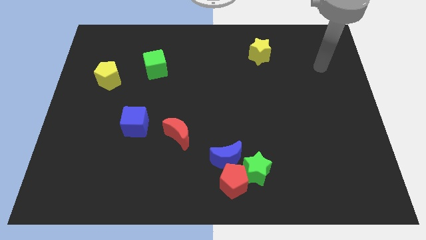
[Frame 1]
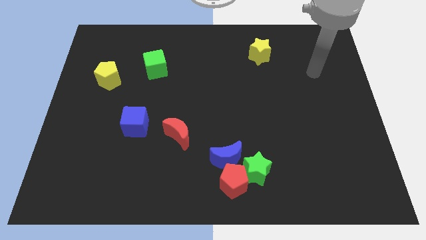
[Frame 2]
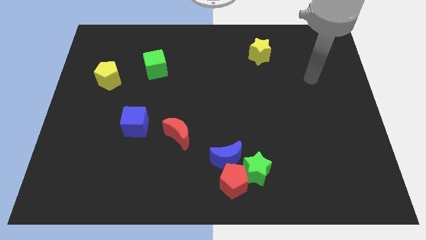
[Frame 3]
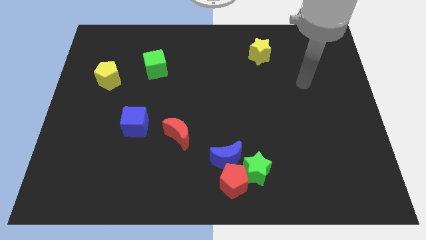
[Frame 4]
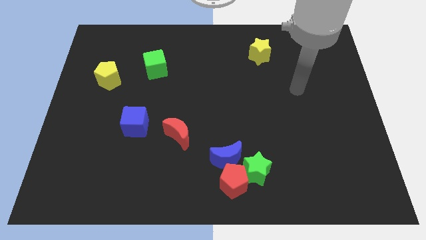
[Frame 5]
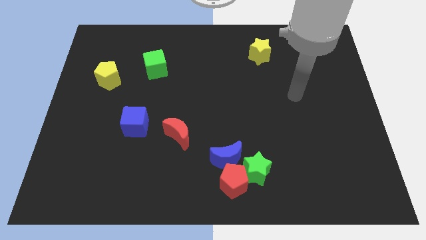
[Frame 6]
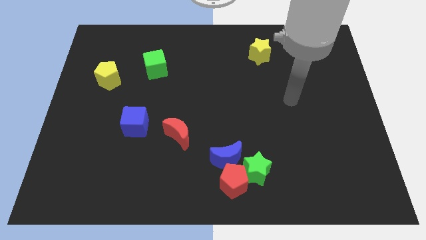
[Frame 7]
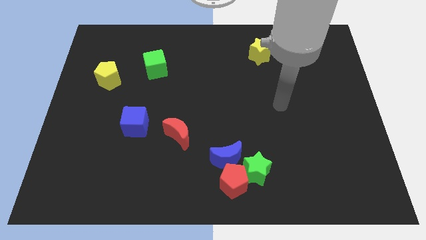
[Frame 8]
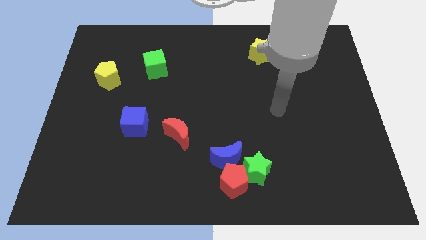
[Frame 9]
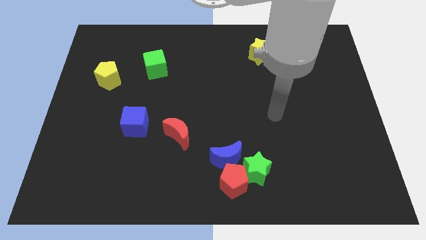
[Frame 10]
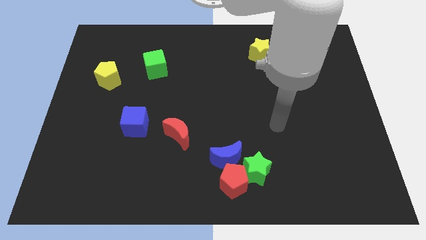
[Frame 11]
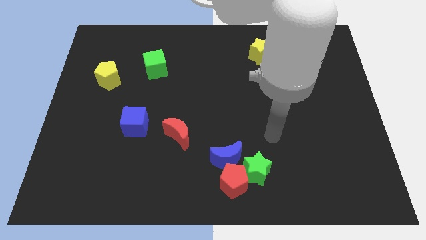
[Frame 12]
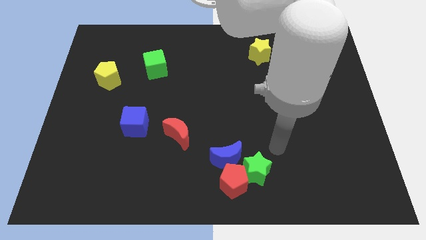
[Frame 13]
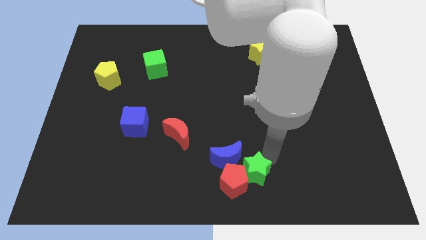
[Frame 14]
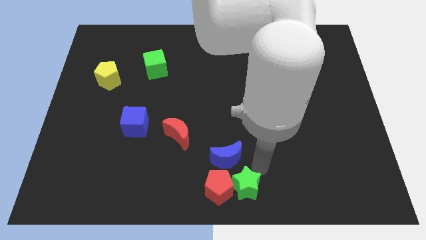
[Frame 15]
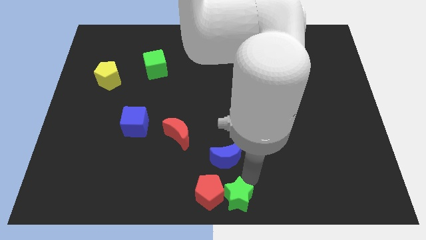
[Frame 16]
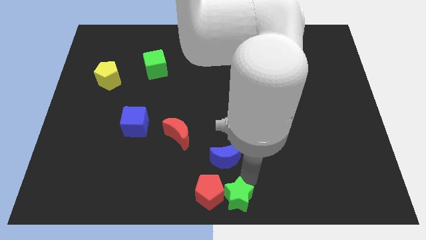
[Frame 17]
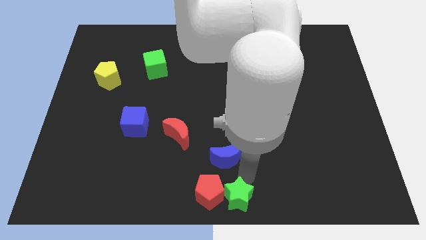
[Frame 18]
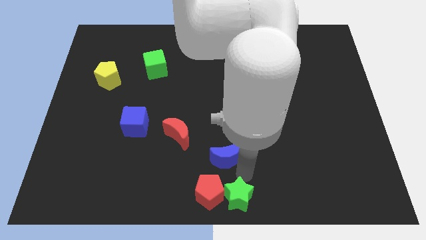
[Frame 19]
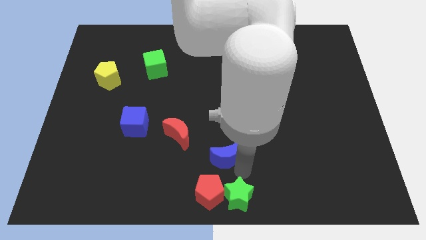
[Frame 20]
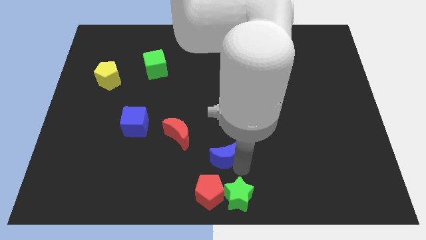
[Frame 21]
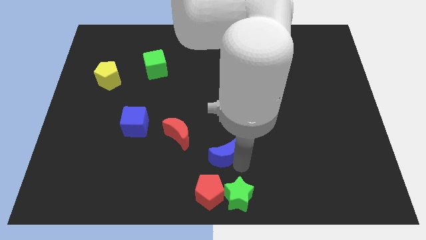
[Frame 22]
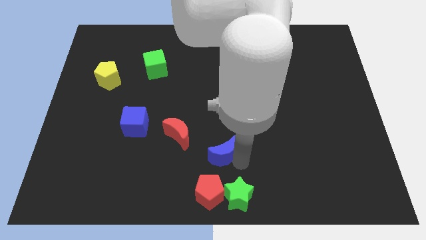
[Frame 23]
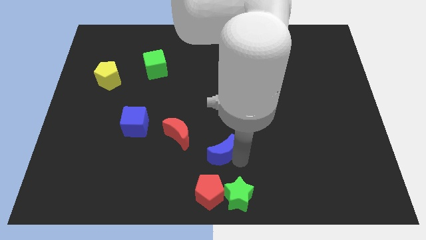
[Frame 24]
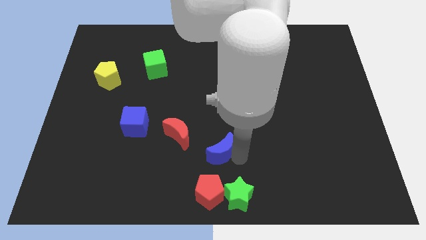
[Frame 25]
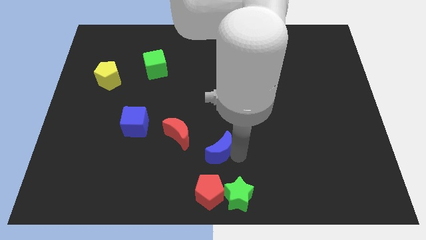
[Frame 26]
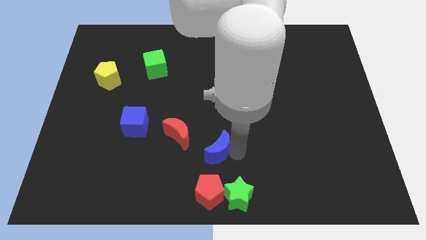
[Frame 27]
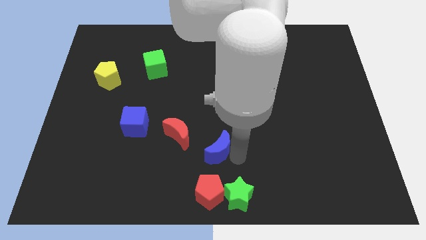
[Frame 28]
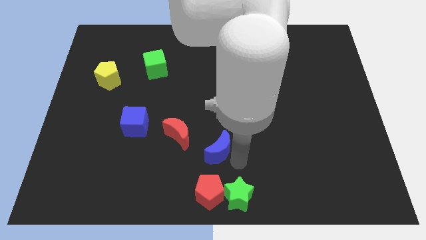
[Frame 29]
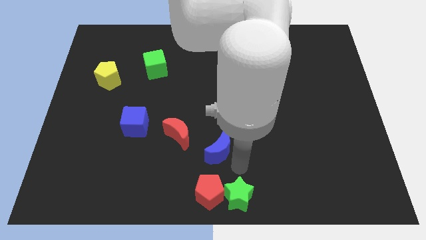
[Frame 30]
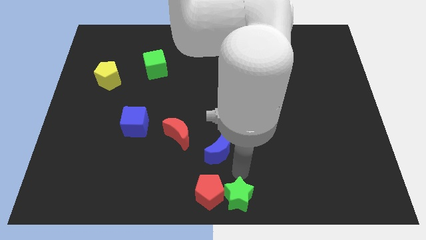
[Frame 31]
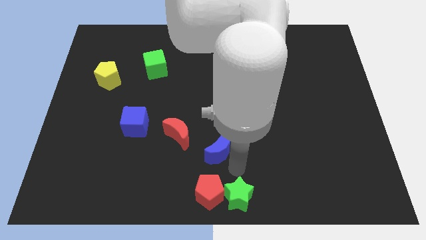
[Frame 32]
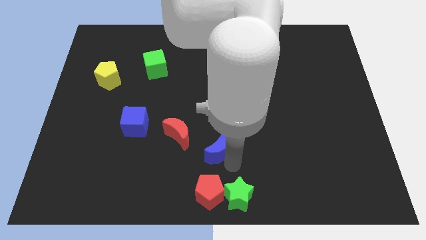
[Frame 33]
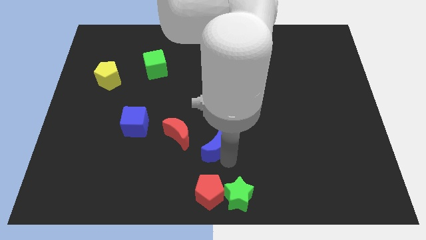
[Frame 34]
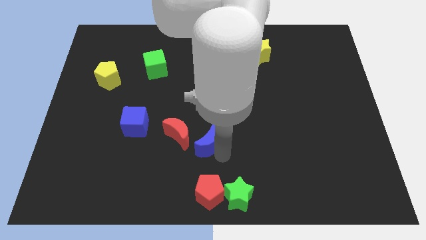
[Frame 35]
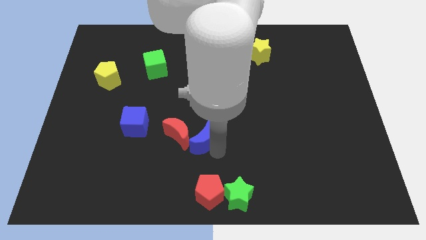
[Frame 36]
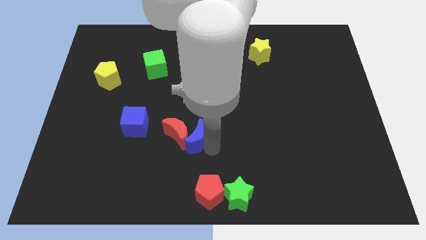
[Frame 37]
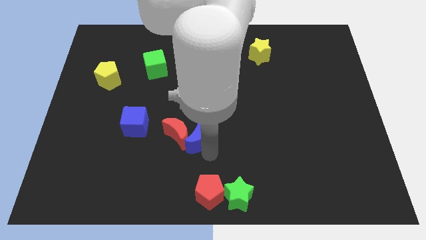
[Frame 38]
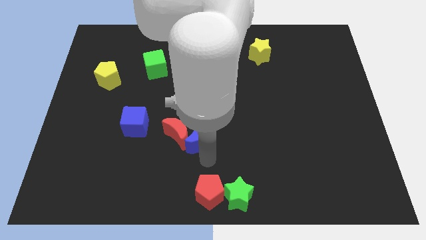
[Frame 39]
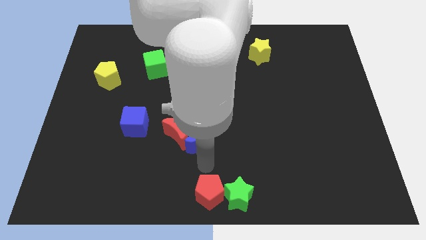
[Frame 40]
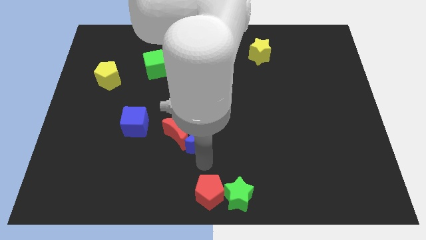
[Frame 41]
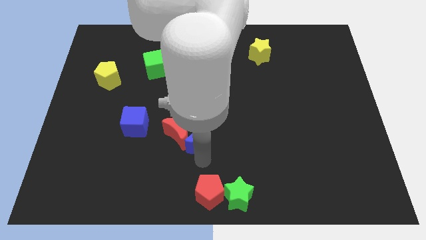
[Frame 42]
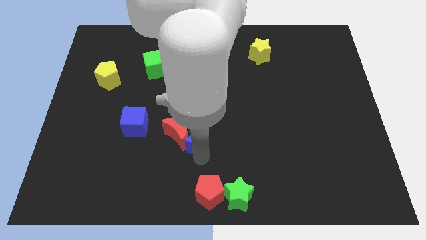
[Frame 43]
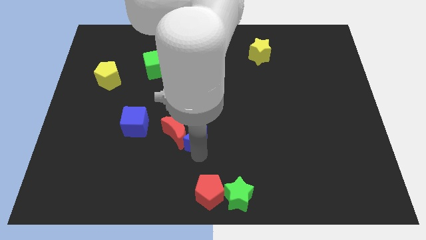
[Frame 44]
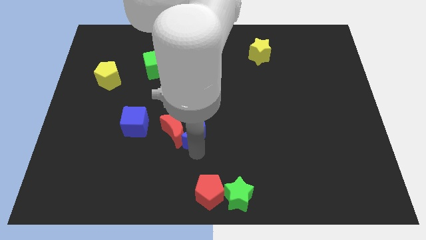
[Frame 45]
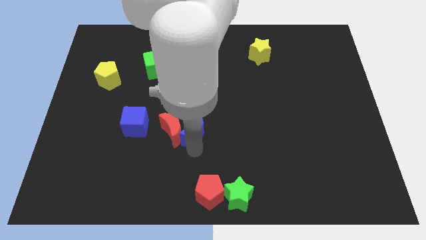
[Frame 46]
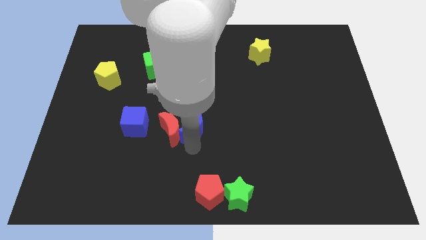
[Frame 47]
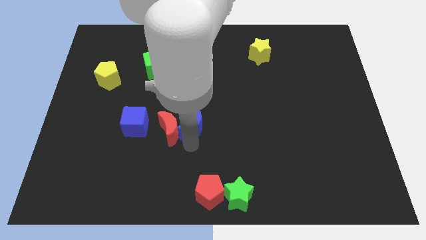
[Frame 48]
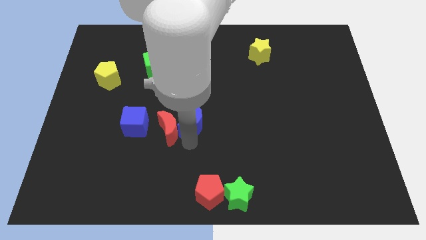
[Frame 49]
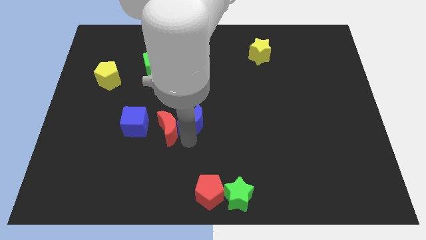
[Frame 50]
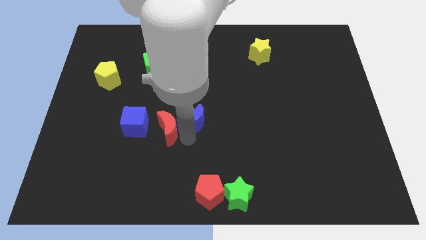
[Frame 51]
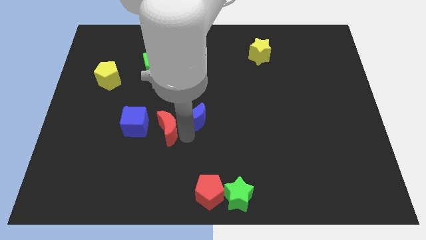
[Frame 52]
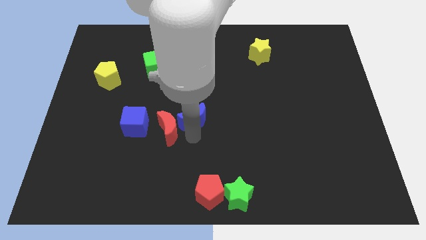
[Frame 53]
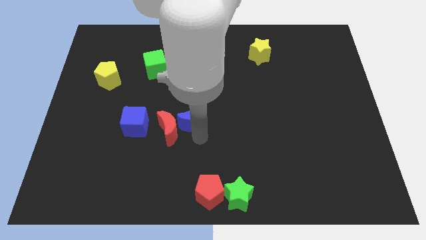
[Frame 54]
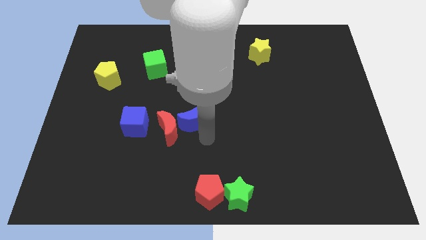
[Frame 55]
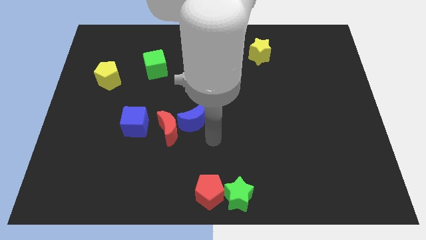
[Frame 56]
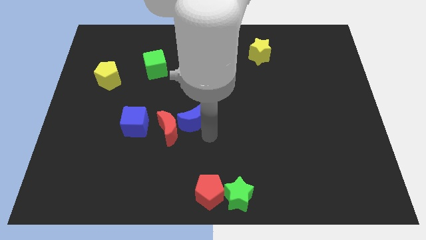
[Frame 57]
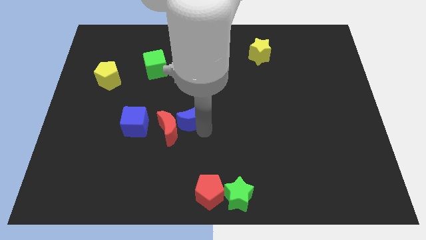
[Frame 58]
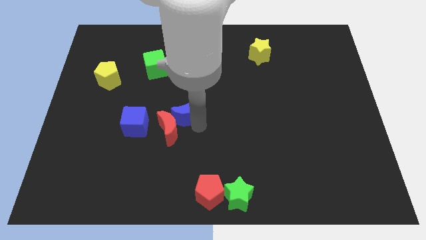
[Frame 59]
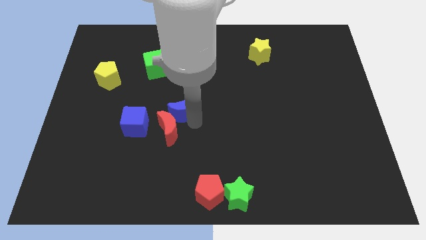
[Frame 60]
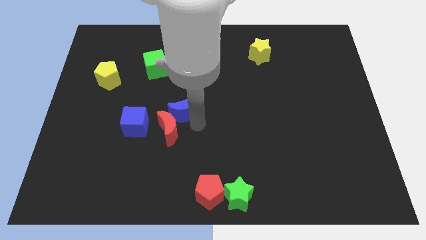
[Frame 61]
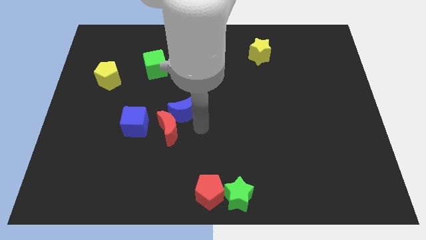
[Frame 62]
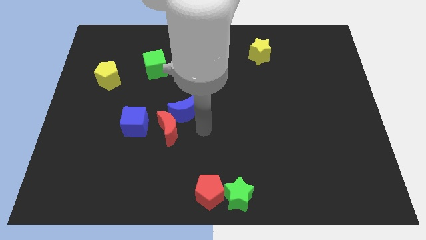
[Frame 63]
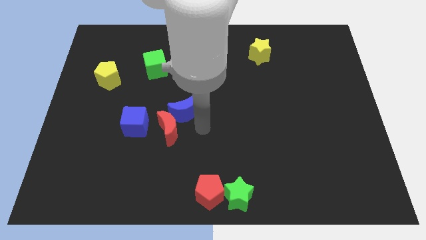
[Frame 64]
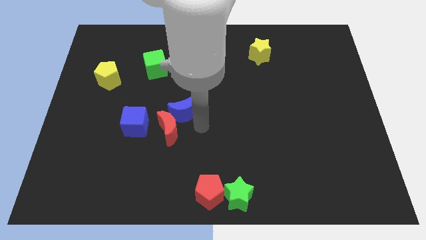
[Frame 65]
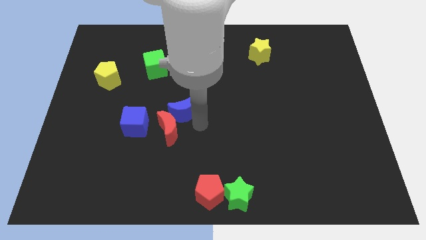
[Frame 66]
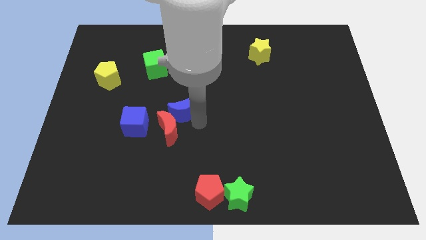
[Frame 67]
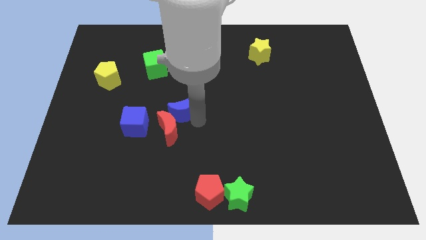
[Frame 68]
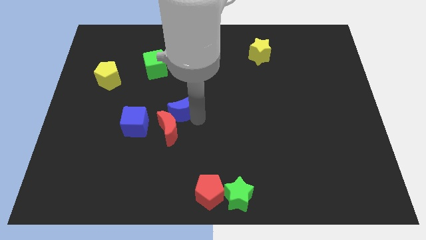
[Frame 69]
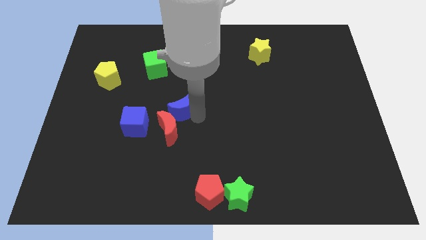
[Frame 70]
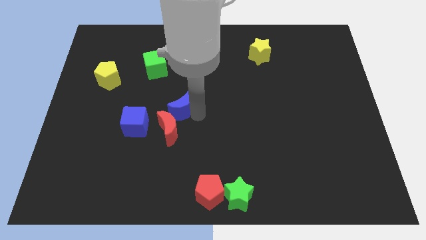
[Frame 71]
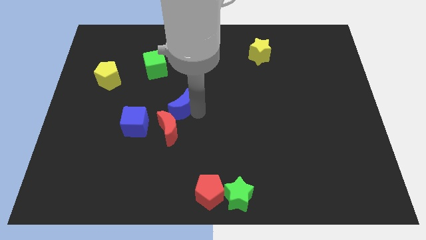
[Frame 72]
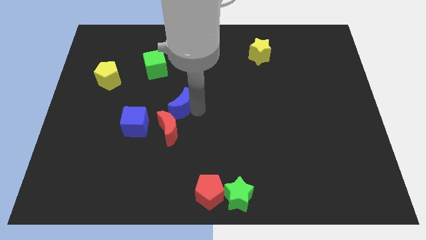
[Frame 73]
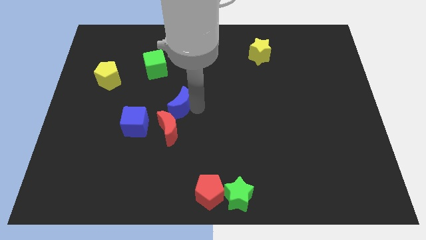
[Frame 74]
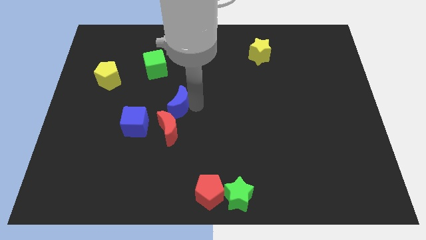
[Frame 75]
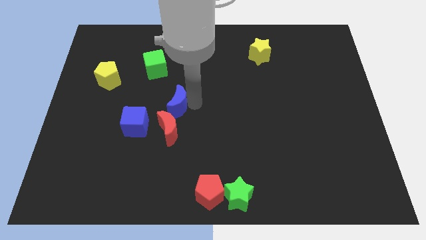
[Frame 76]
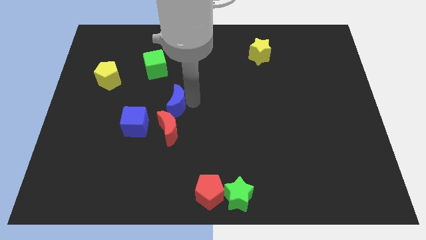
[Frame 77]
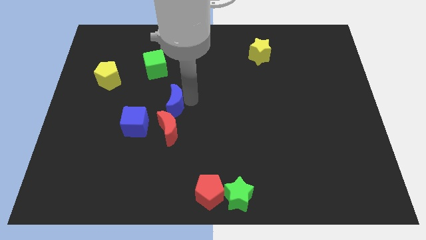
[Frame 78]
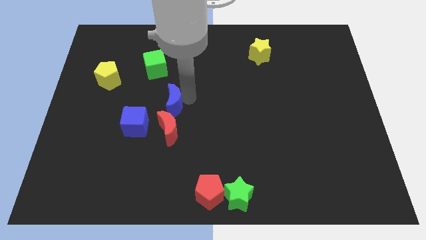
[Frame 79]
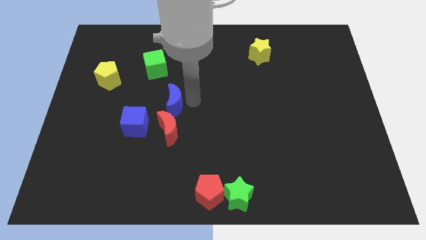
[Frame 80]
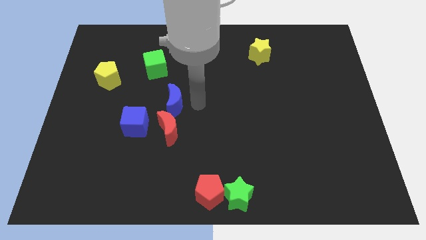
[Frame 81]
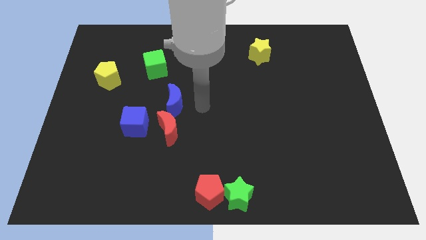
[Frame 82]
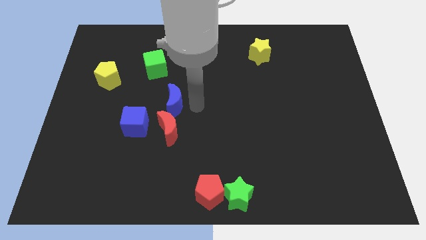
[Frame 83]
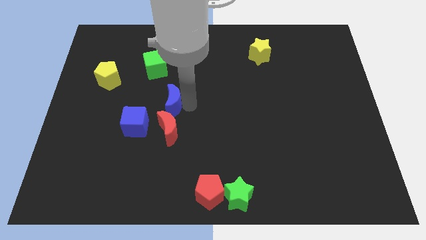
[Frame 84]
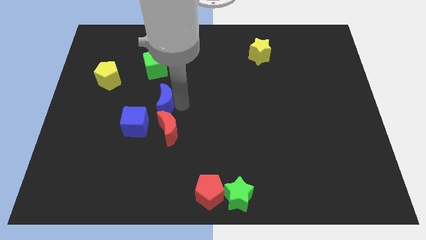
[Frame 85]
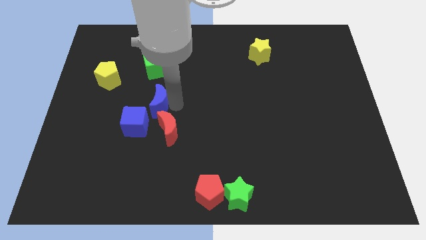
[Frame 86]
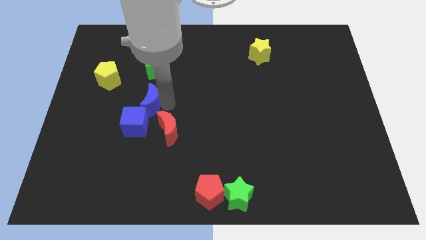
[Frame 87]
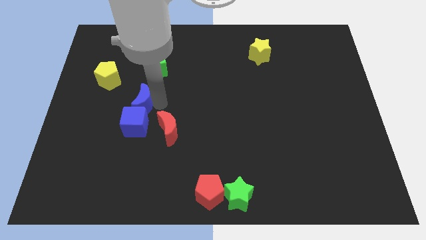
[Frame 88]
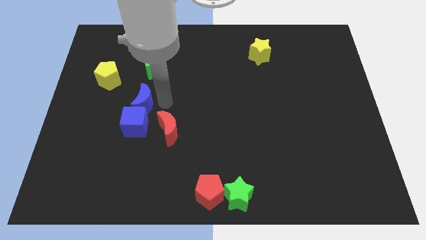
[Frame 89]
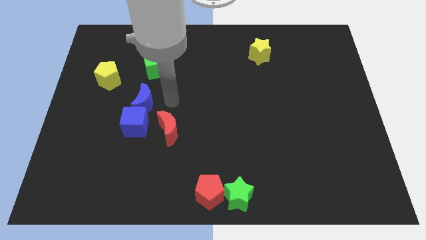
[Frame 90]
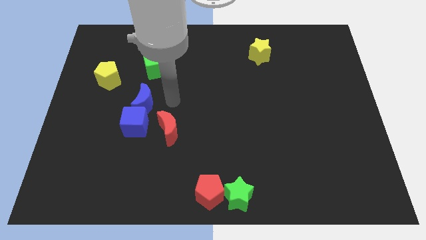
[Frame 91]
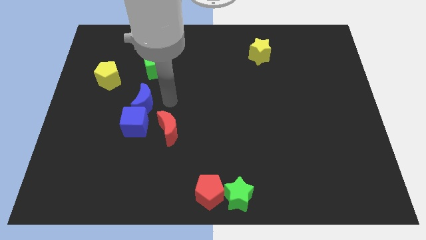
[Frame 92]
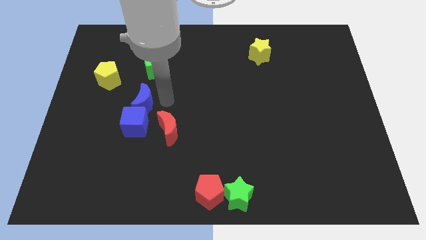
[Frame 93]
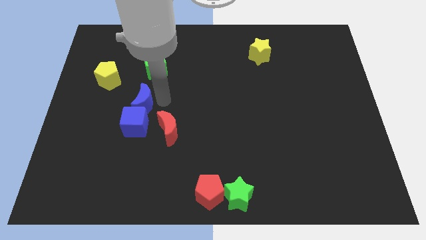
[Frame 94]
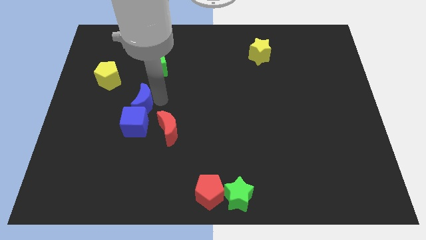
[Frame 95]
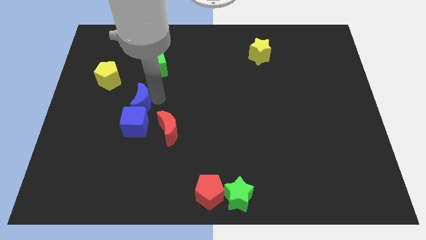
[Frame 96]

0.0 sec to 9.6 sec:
slide the blue moon to the top left of the blue cube
